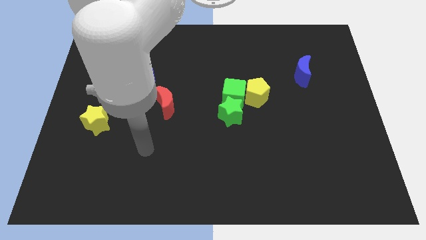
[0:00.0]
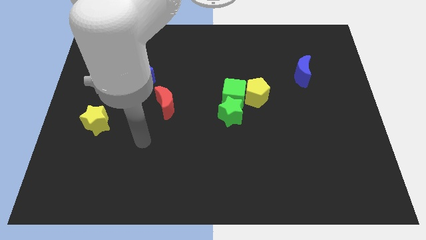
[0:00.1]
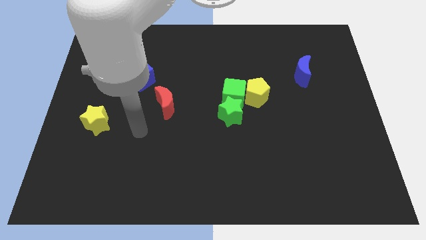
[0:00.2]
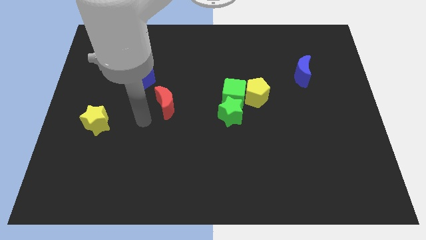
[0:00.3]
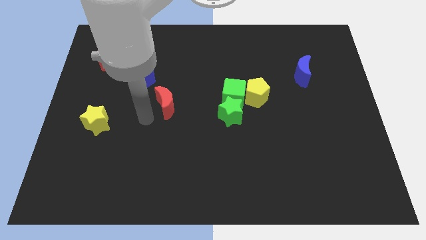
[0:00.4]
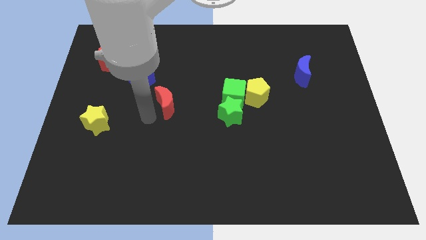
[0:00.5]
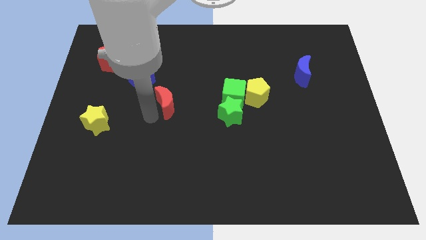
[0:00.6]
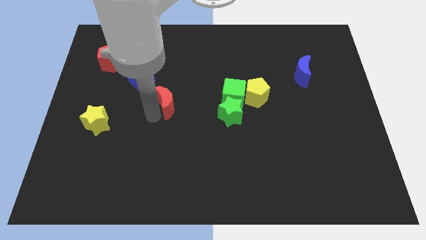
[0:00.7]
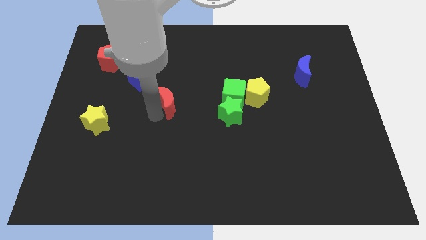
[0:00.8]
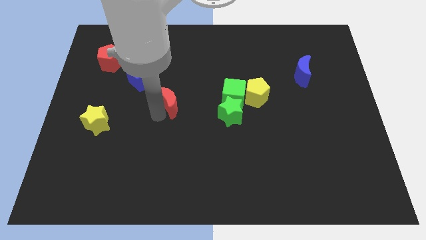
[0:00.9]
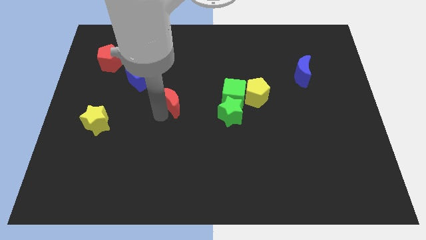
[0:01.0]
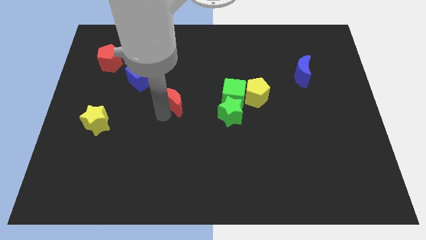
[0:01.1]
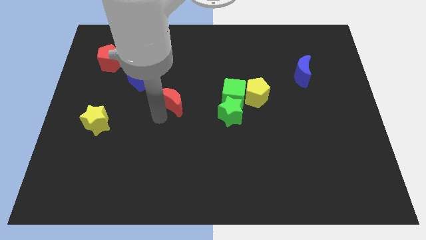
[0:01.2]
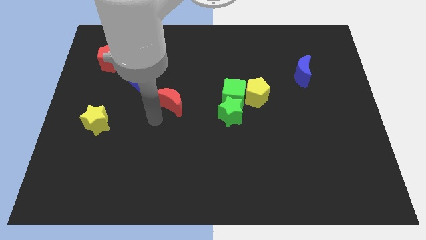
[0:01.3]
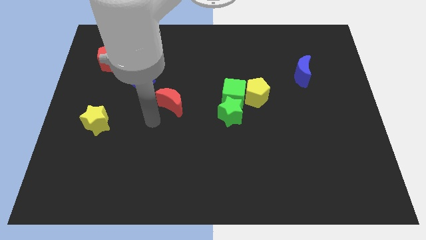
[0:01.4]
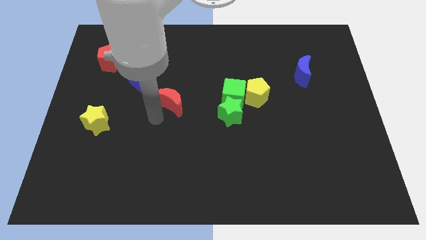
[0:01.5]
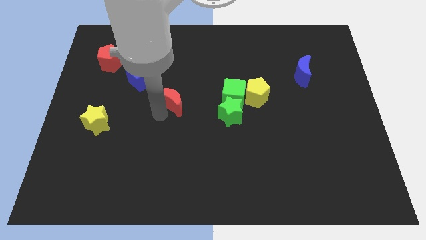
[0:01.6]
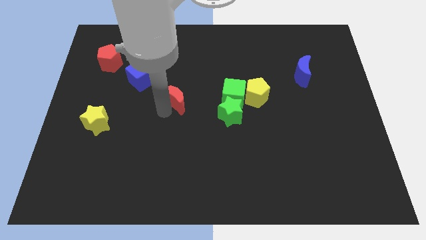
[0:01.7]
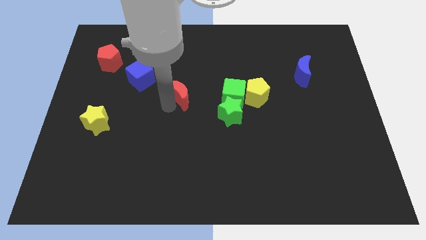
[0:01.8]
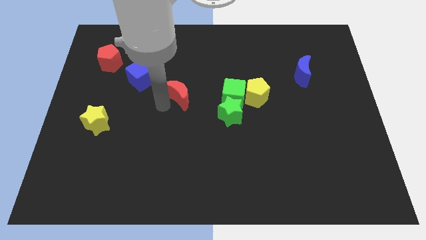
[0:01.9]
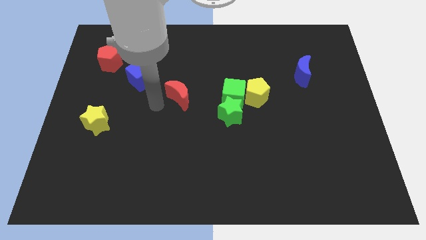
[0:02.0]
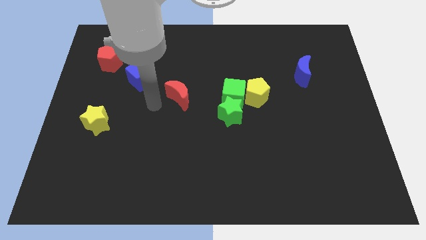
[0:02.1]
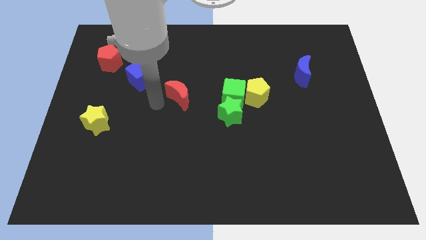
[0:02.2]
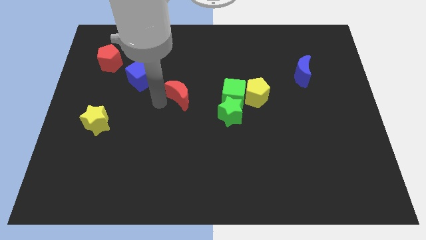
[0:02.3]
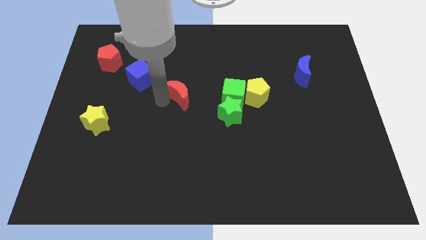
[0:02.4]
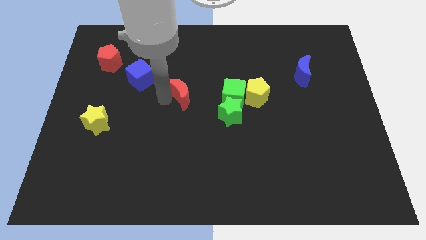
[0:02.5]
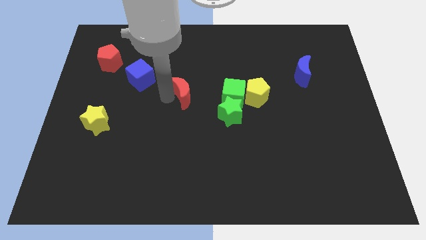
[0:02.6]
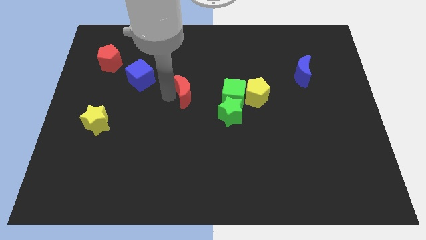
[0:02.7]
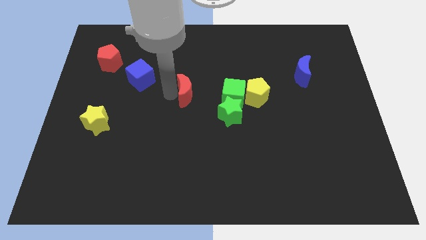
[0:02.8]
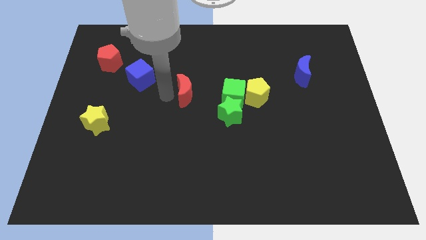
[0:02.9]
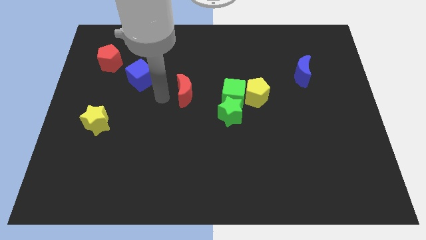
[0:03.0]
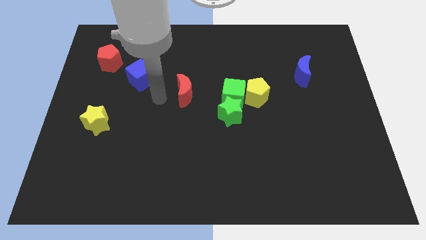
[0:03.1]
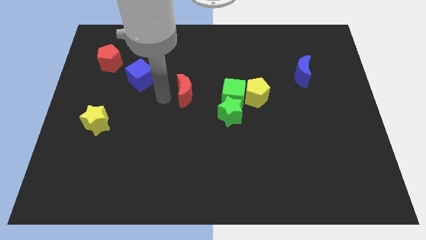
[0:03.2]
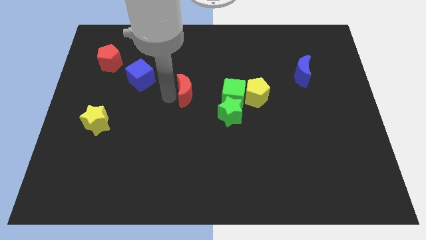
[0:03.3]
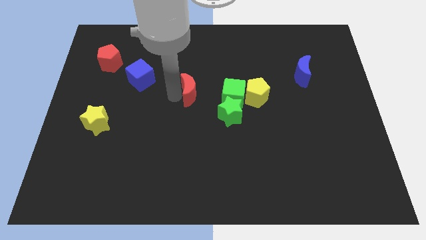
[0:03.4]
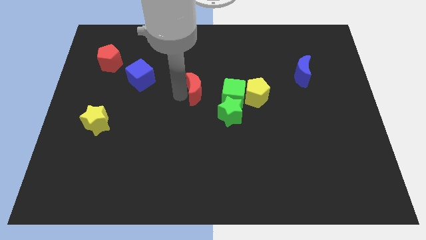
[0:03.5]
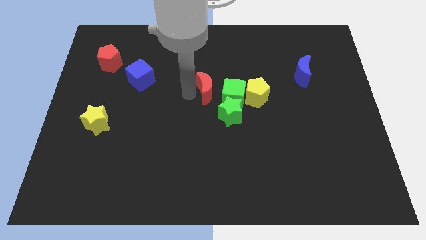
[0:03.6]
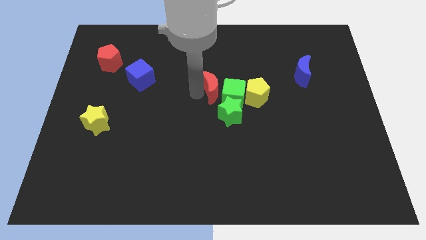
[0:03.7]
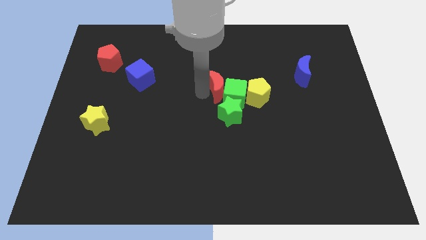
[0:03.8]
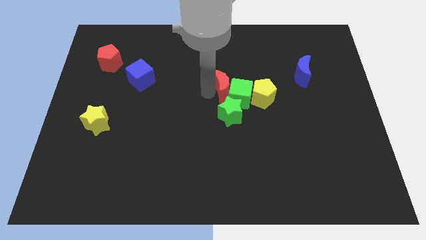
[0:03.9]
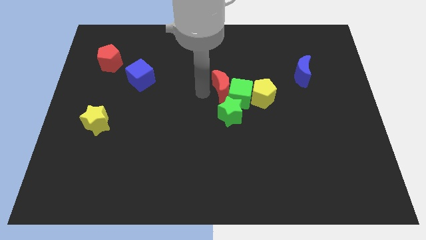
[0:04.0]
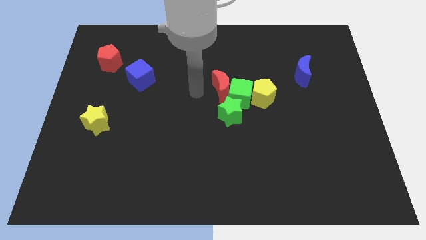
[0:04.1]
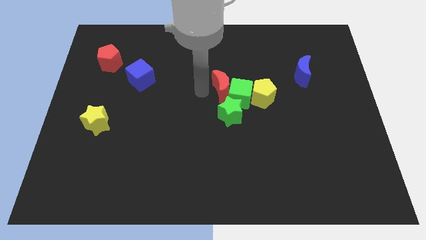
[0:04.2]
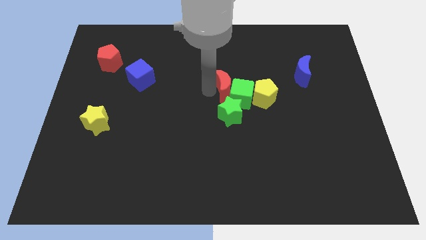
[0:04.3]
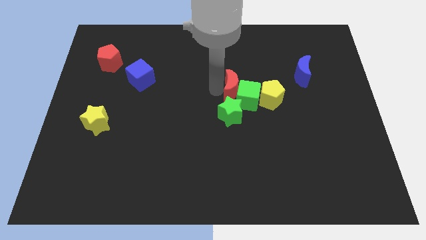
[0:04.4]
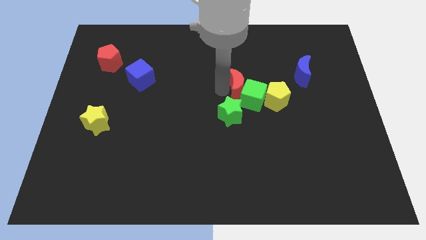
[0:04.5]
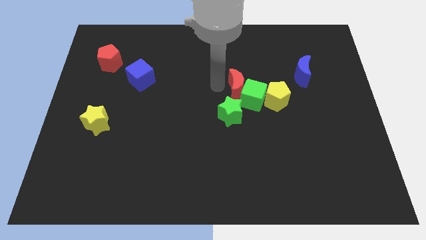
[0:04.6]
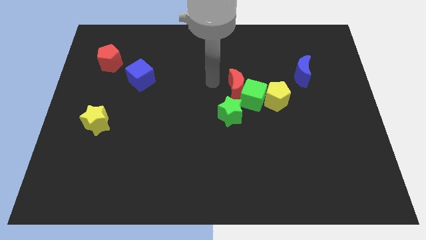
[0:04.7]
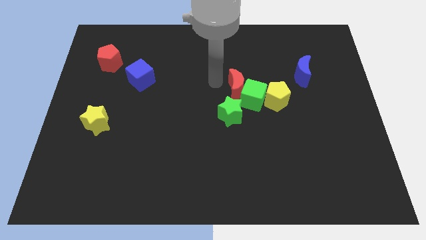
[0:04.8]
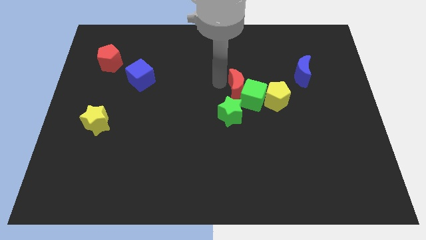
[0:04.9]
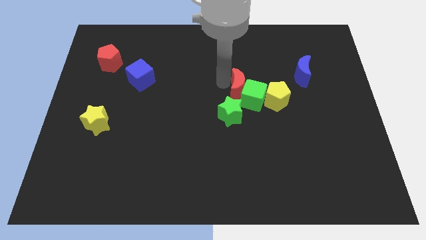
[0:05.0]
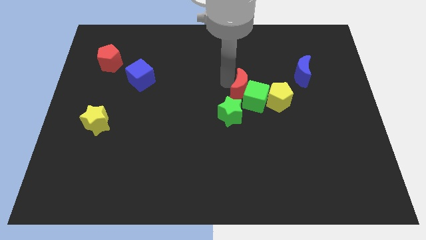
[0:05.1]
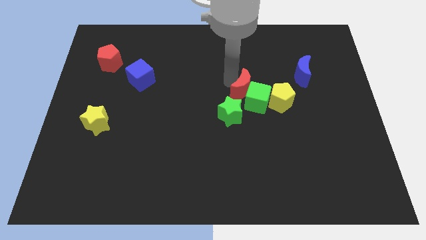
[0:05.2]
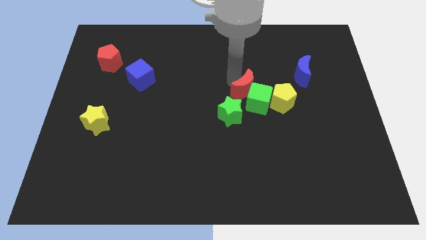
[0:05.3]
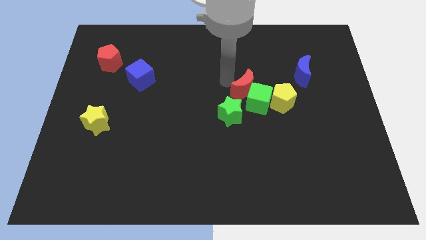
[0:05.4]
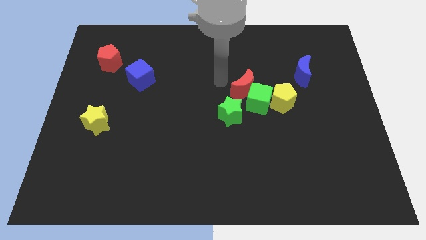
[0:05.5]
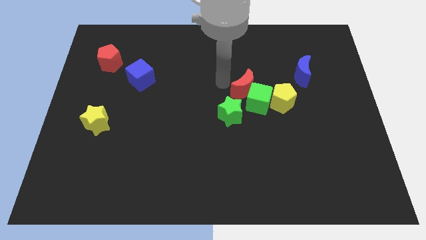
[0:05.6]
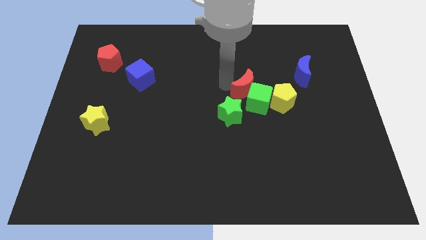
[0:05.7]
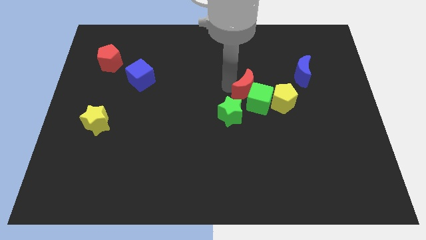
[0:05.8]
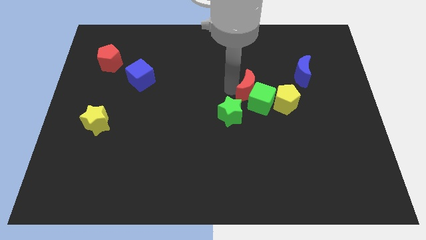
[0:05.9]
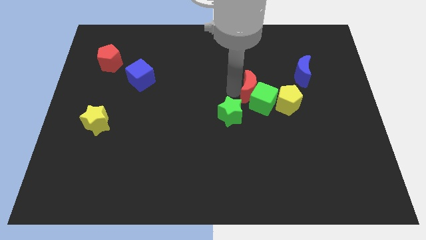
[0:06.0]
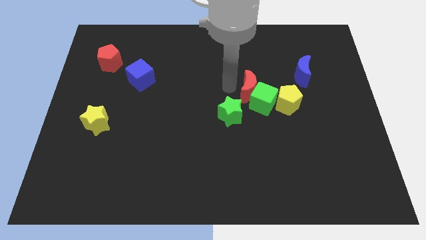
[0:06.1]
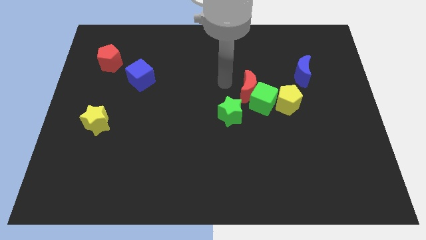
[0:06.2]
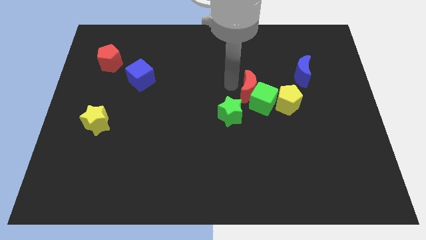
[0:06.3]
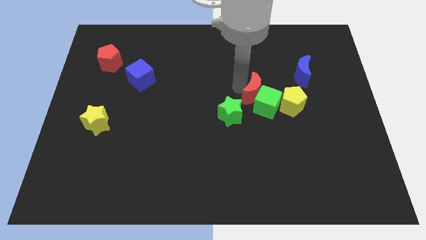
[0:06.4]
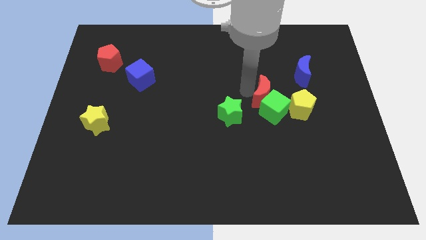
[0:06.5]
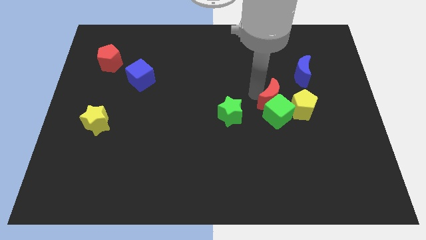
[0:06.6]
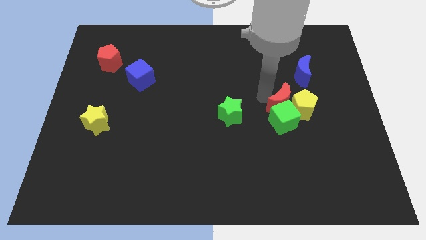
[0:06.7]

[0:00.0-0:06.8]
move the red moon to the yellow pentagon
